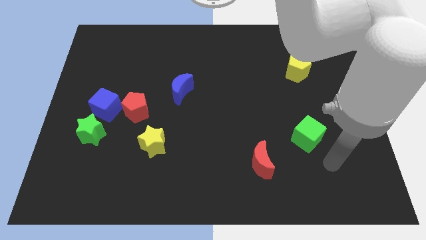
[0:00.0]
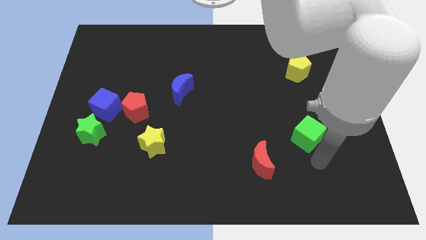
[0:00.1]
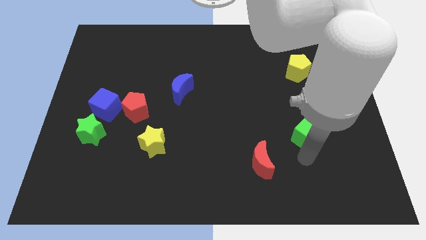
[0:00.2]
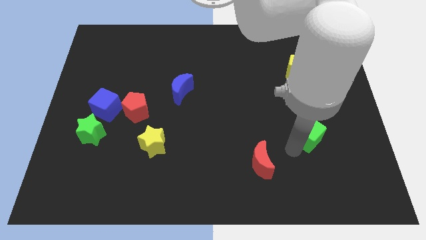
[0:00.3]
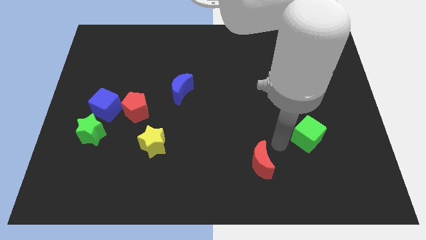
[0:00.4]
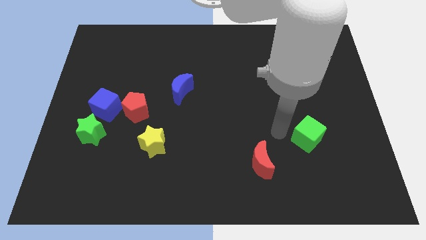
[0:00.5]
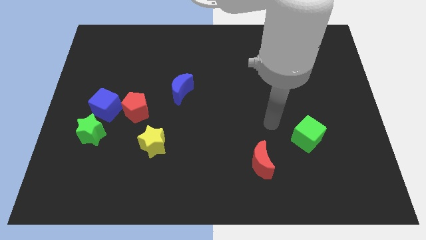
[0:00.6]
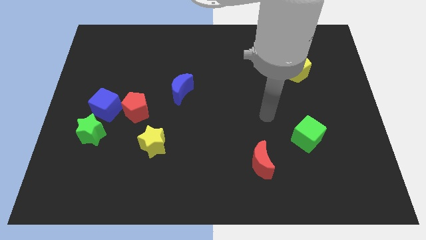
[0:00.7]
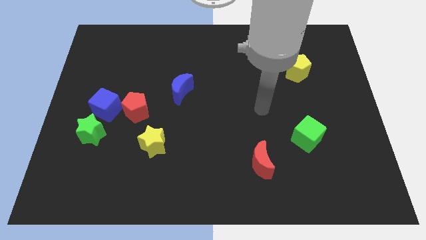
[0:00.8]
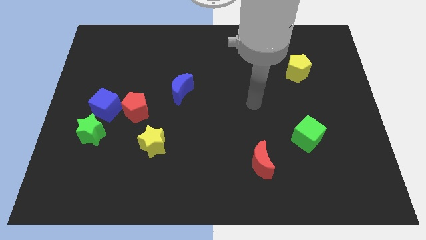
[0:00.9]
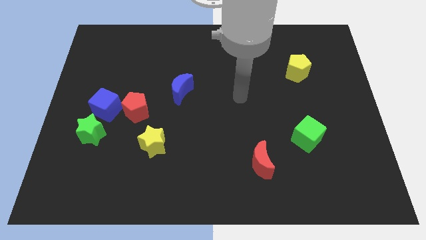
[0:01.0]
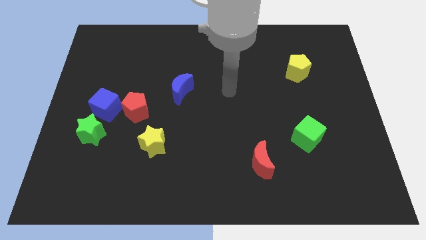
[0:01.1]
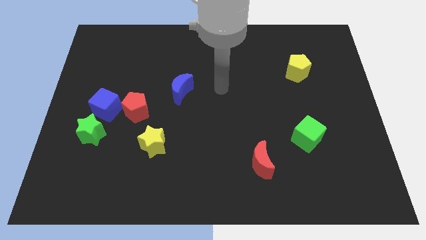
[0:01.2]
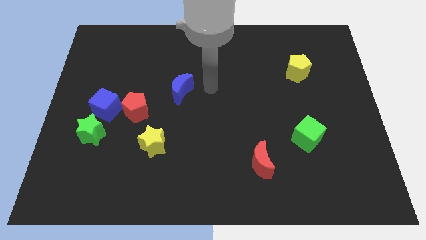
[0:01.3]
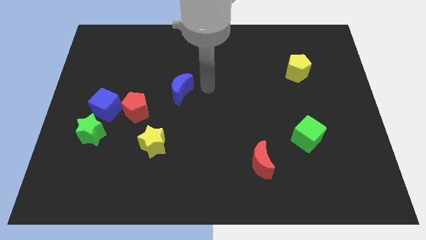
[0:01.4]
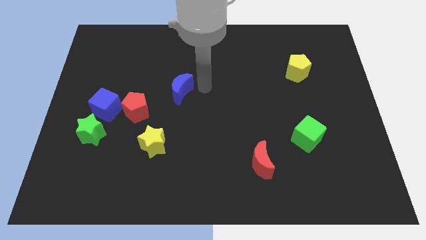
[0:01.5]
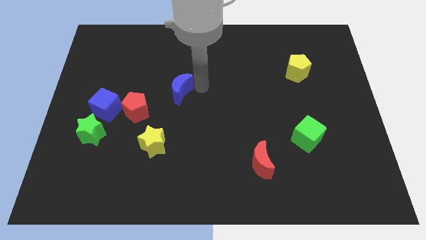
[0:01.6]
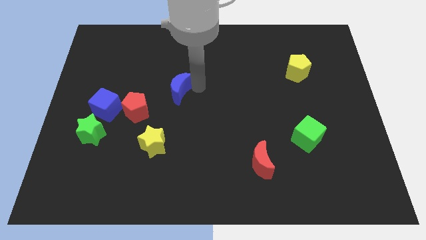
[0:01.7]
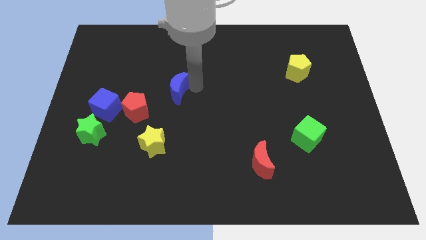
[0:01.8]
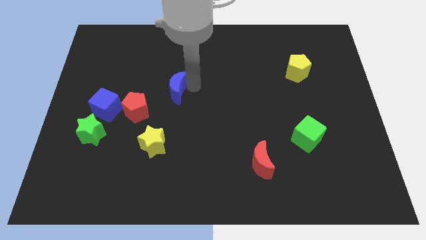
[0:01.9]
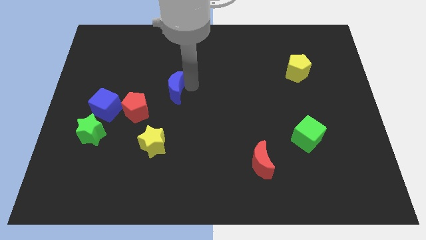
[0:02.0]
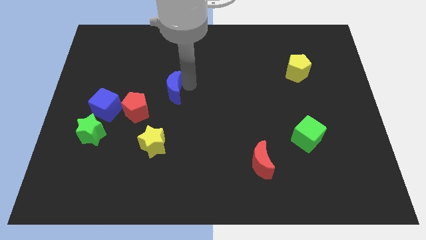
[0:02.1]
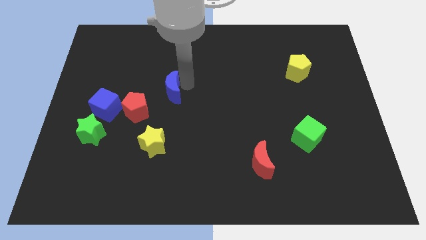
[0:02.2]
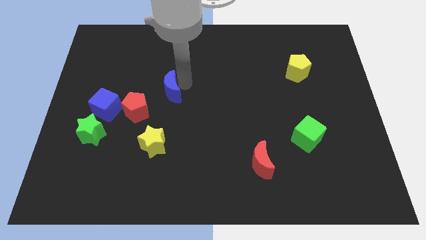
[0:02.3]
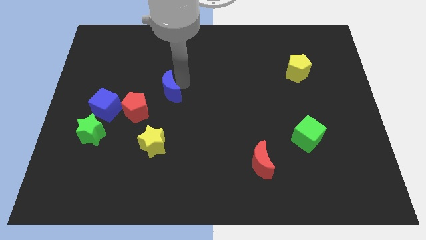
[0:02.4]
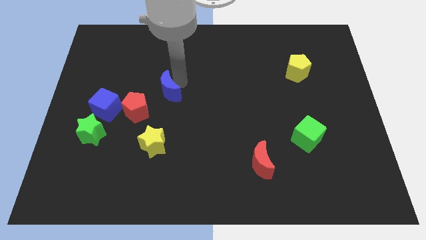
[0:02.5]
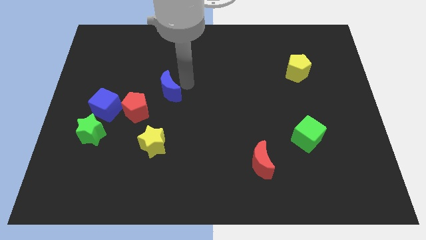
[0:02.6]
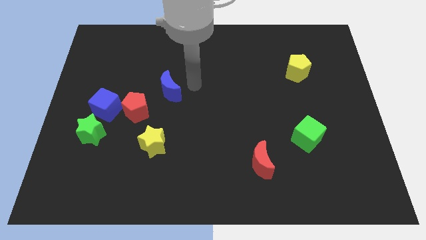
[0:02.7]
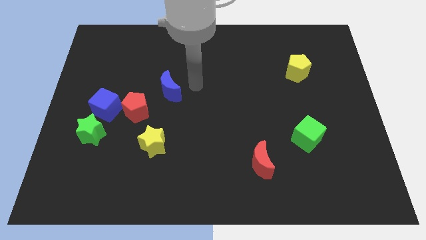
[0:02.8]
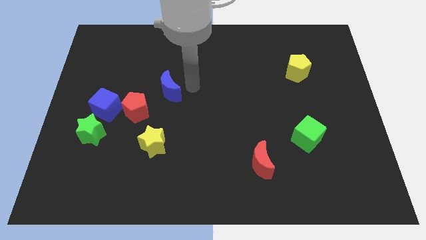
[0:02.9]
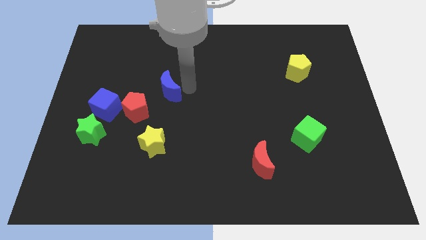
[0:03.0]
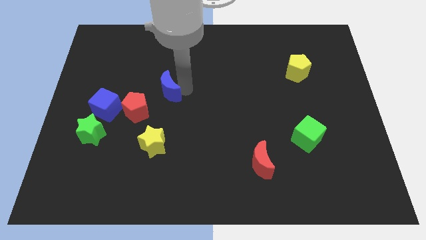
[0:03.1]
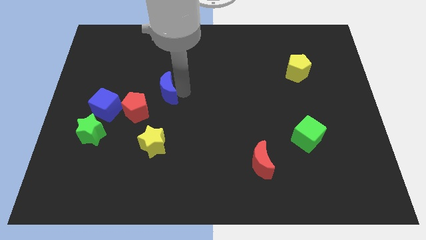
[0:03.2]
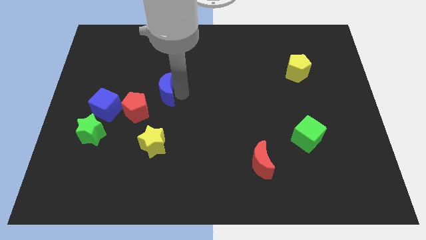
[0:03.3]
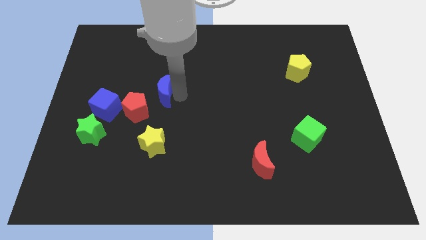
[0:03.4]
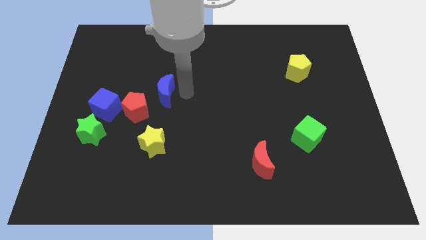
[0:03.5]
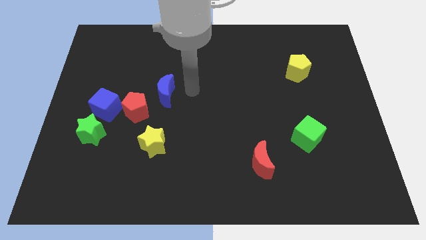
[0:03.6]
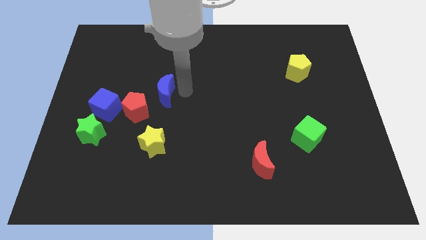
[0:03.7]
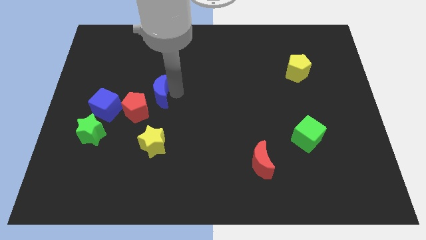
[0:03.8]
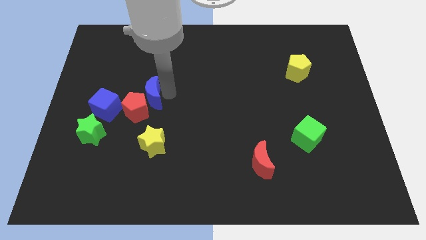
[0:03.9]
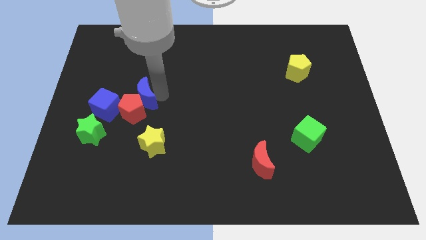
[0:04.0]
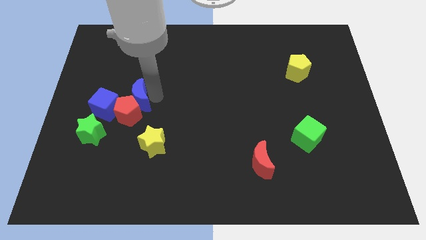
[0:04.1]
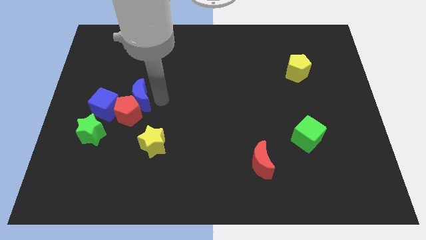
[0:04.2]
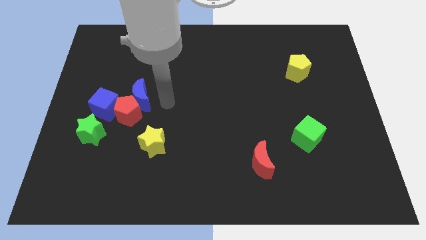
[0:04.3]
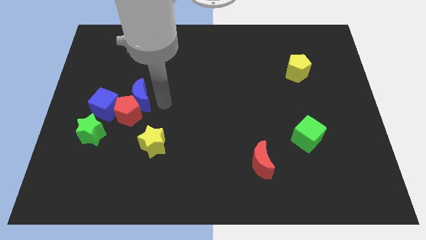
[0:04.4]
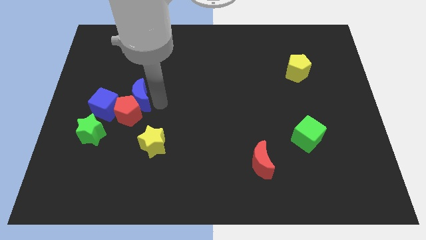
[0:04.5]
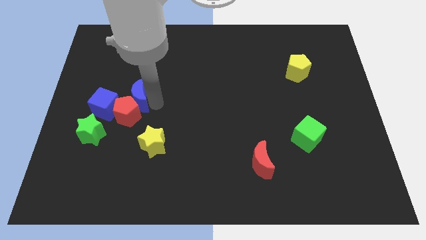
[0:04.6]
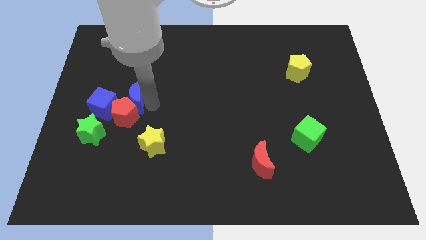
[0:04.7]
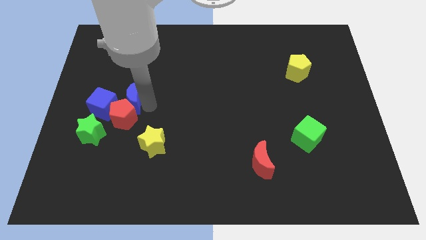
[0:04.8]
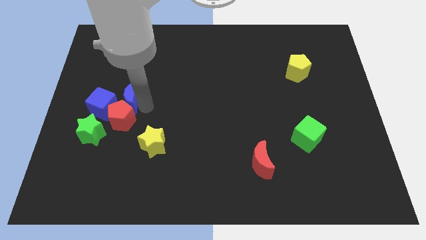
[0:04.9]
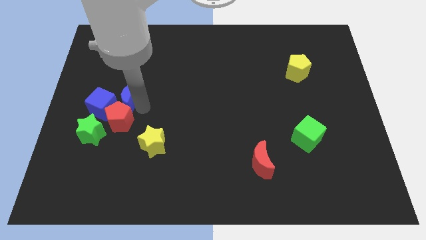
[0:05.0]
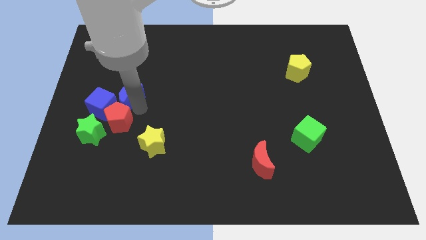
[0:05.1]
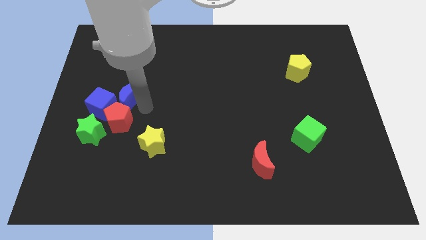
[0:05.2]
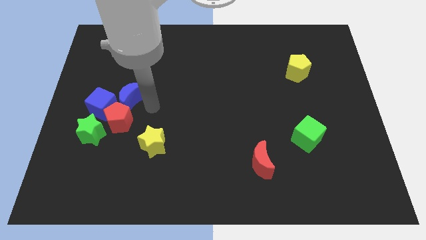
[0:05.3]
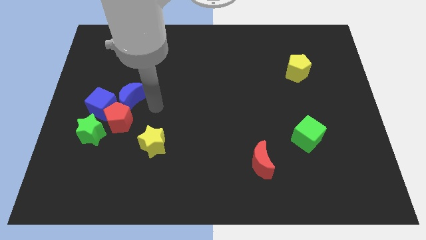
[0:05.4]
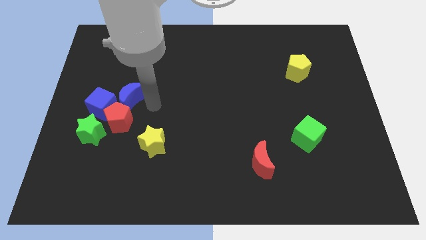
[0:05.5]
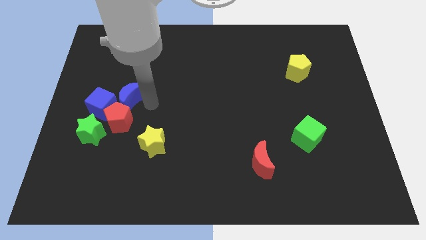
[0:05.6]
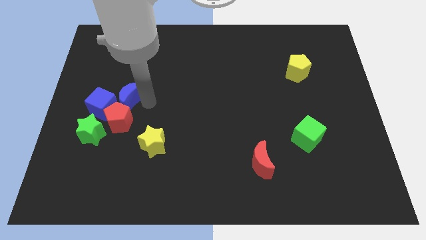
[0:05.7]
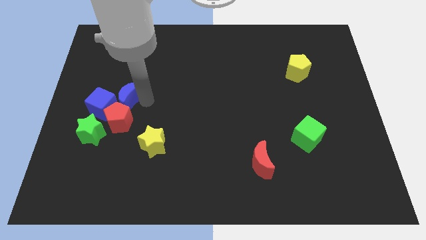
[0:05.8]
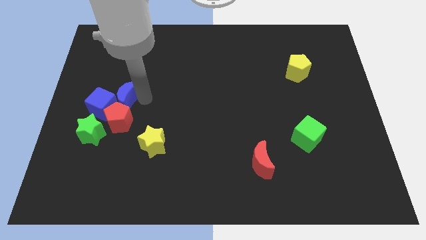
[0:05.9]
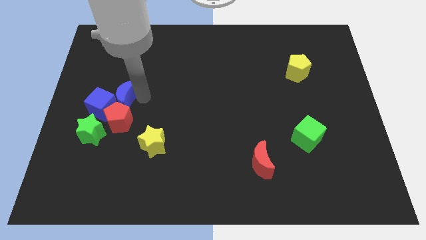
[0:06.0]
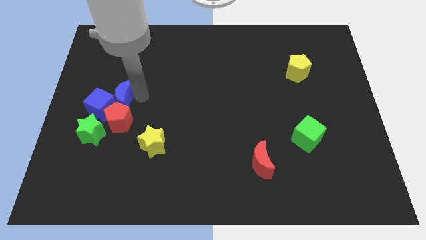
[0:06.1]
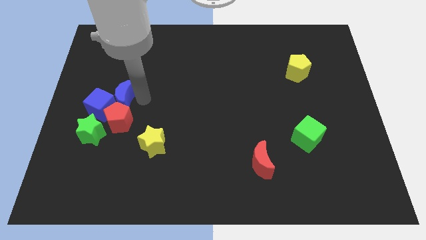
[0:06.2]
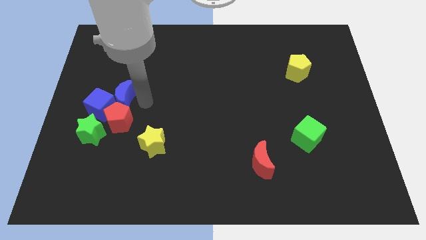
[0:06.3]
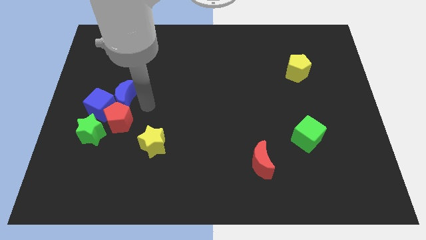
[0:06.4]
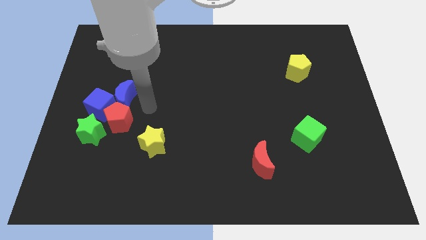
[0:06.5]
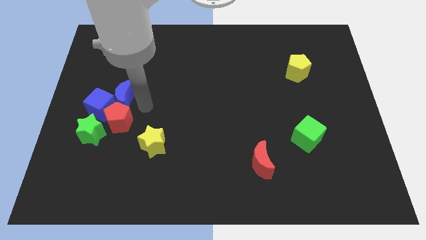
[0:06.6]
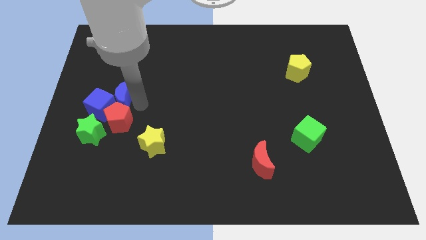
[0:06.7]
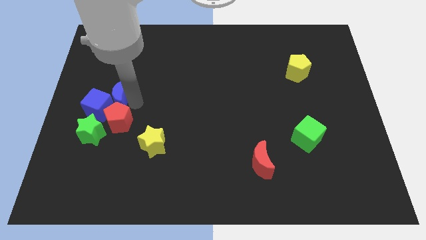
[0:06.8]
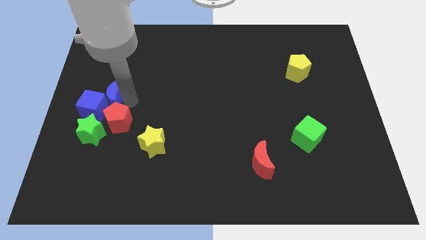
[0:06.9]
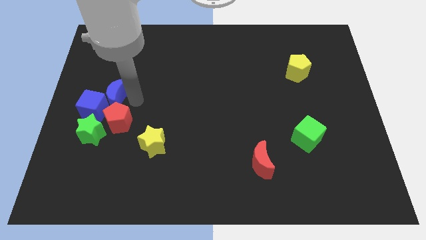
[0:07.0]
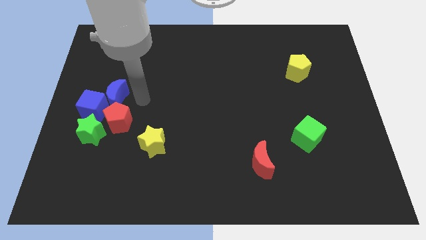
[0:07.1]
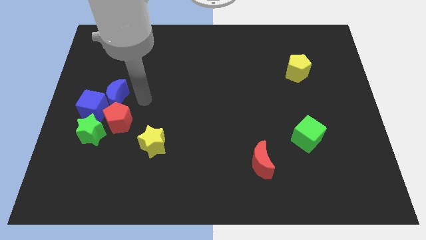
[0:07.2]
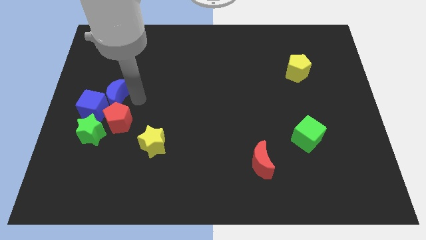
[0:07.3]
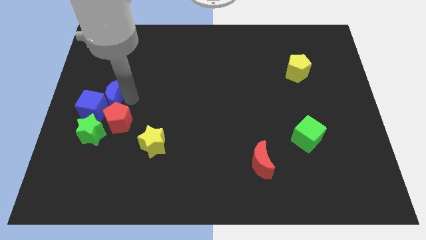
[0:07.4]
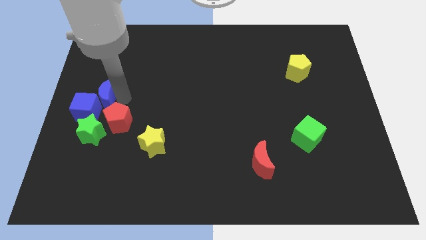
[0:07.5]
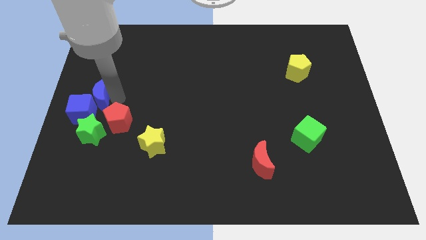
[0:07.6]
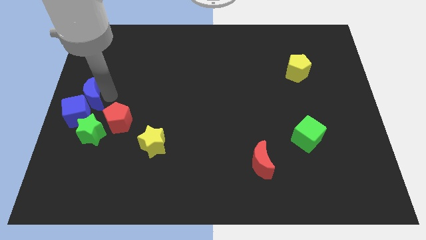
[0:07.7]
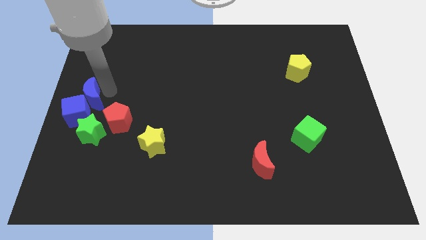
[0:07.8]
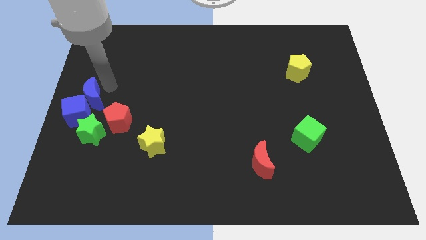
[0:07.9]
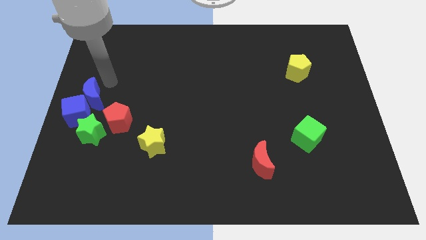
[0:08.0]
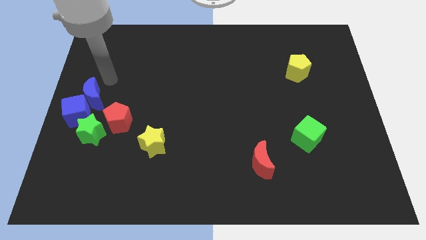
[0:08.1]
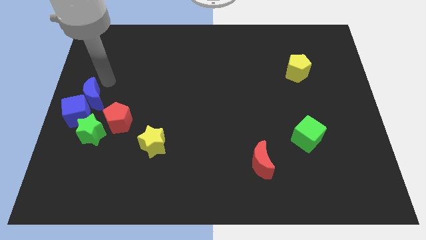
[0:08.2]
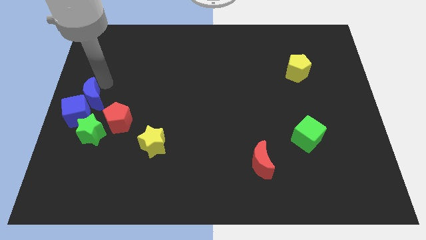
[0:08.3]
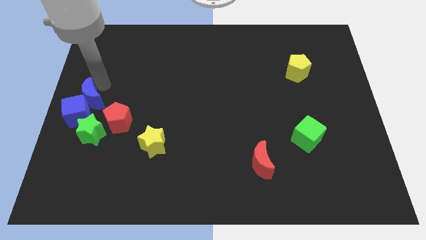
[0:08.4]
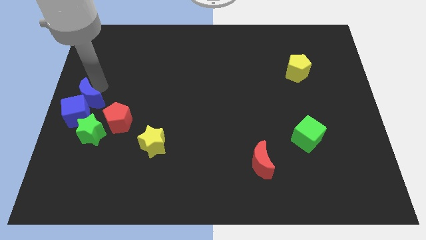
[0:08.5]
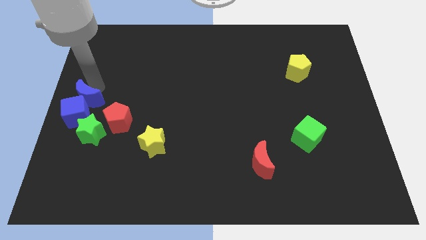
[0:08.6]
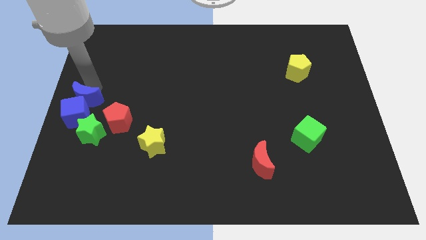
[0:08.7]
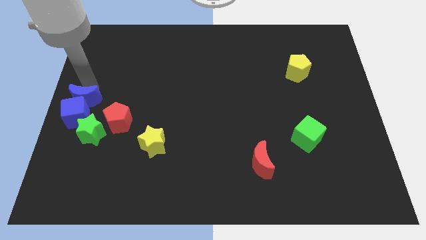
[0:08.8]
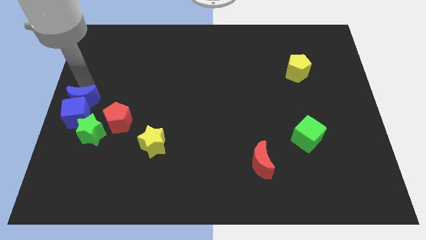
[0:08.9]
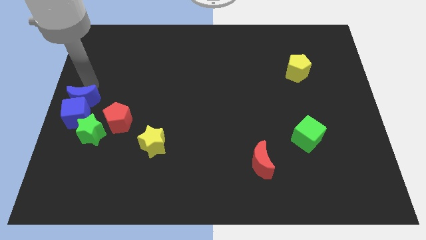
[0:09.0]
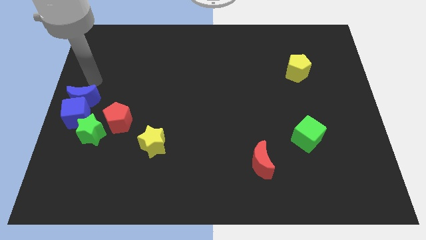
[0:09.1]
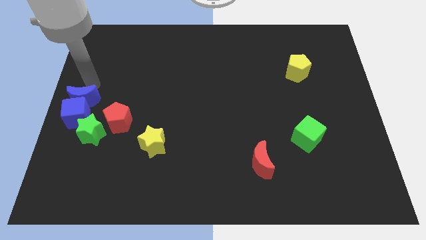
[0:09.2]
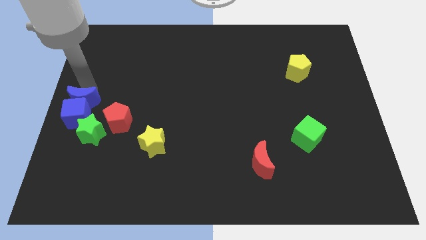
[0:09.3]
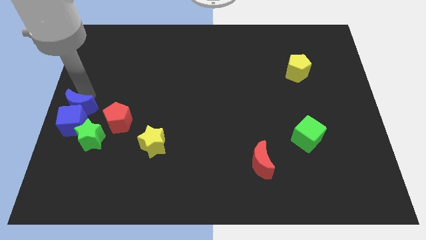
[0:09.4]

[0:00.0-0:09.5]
slide the blue moon left of the red pentagon
